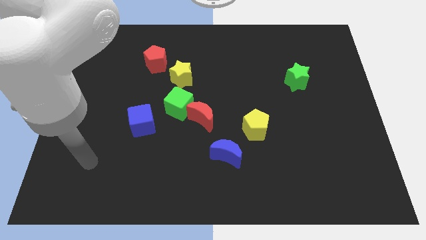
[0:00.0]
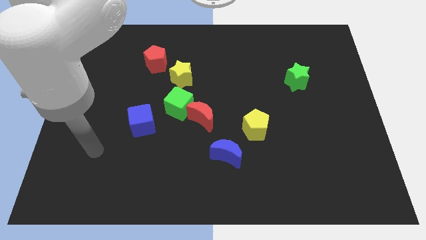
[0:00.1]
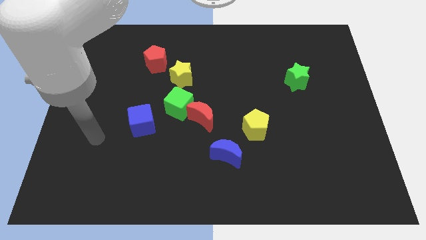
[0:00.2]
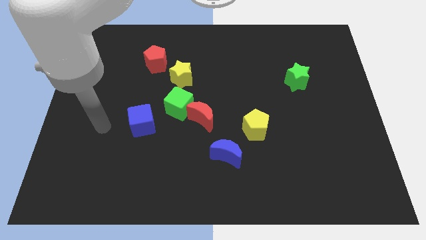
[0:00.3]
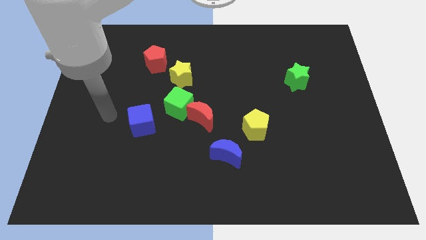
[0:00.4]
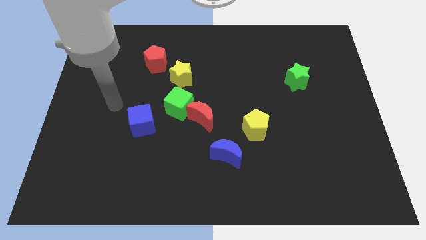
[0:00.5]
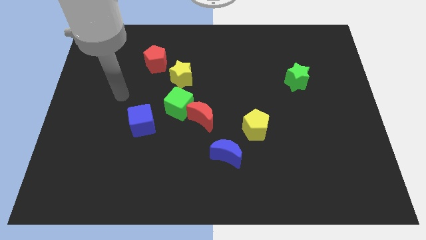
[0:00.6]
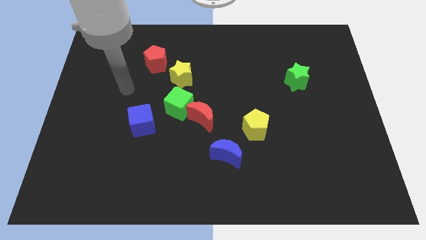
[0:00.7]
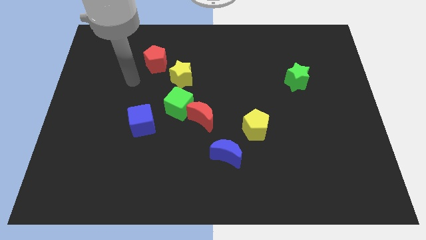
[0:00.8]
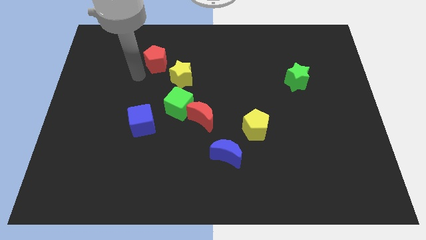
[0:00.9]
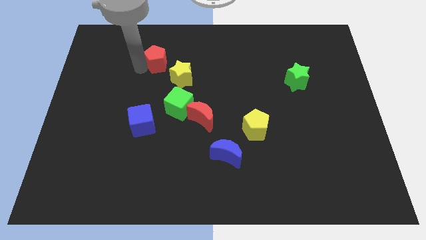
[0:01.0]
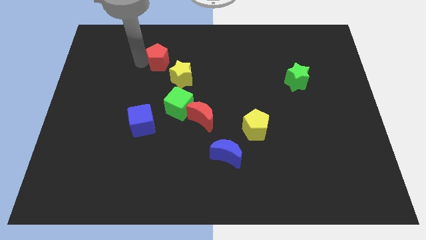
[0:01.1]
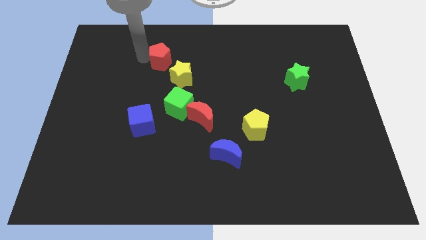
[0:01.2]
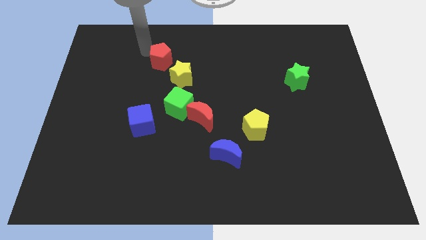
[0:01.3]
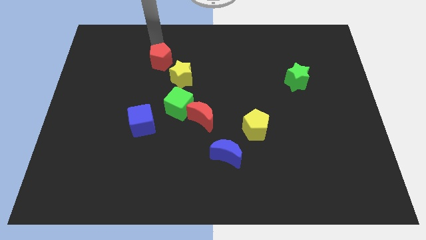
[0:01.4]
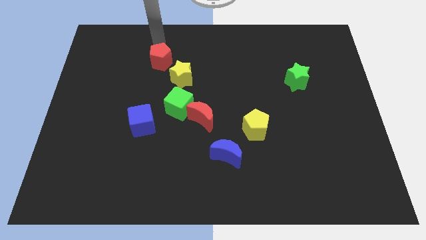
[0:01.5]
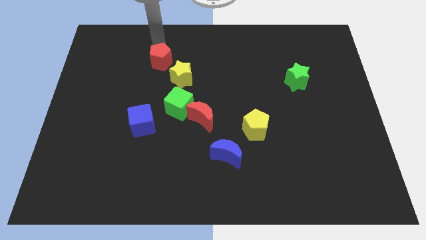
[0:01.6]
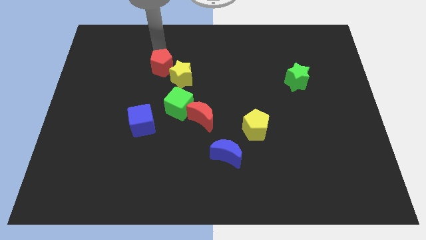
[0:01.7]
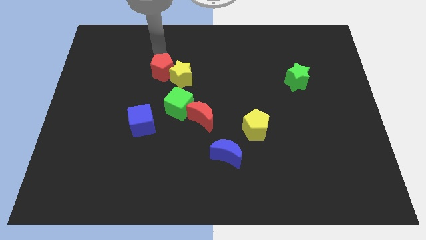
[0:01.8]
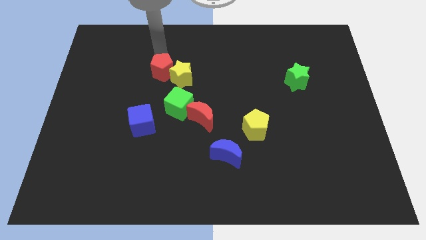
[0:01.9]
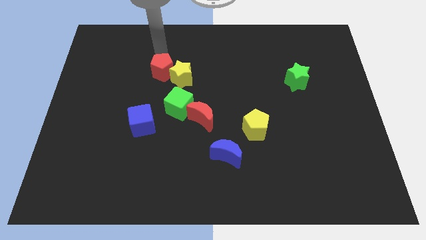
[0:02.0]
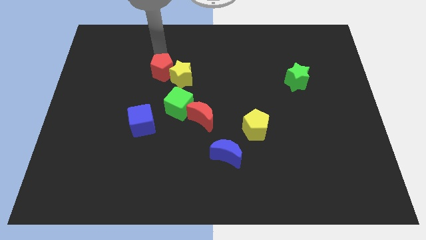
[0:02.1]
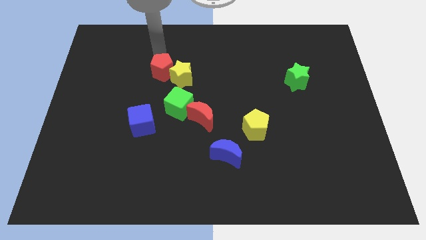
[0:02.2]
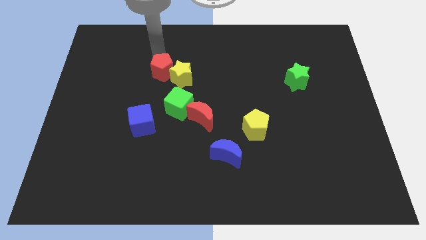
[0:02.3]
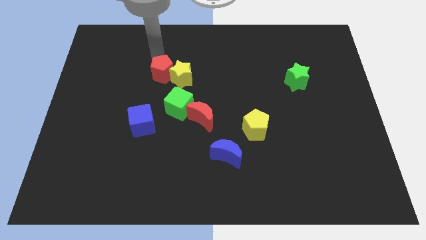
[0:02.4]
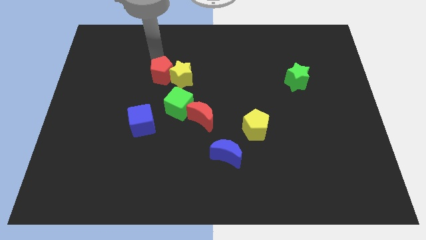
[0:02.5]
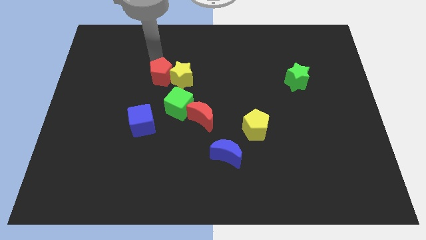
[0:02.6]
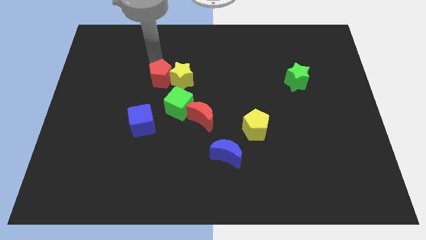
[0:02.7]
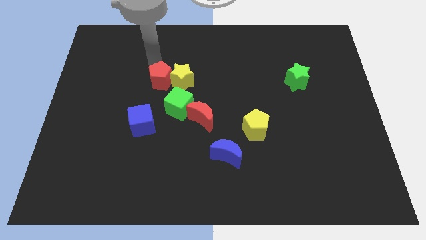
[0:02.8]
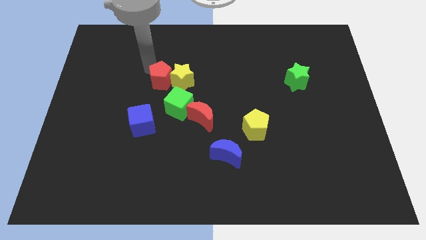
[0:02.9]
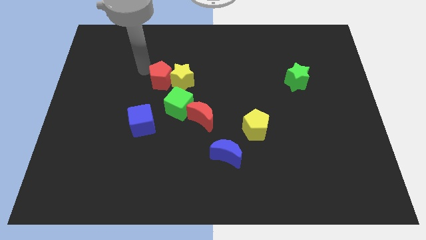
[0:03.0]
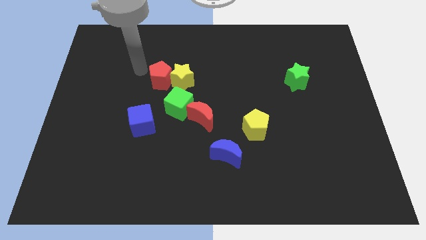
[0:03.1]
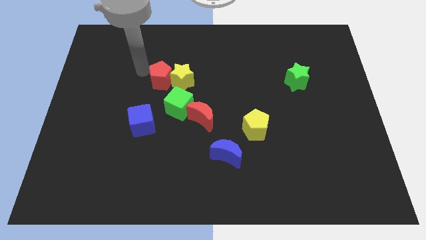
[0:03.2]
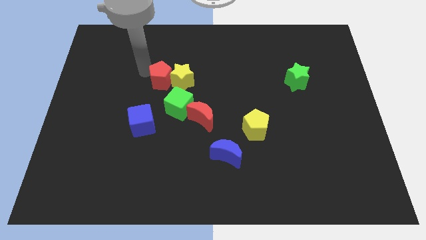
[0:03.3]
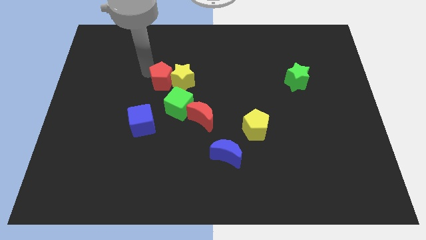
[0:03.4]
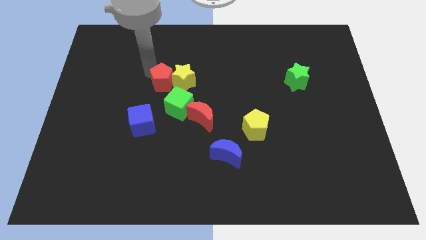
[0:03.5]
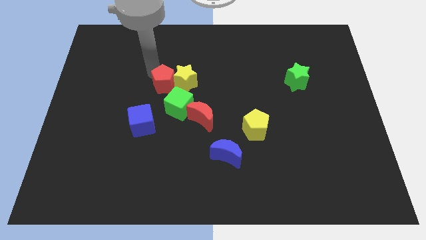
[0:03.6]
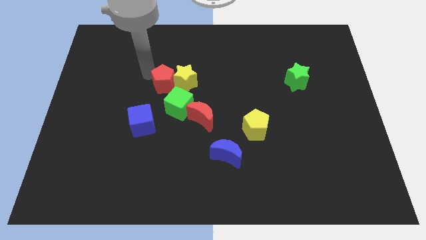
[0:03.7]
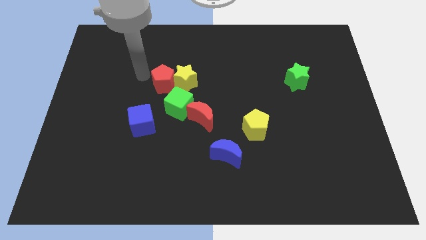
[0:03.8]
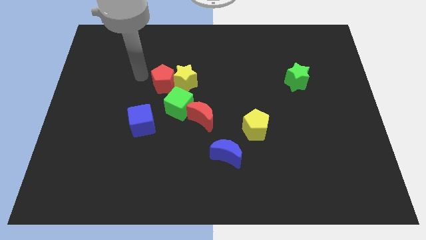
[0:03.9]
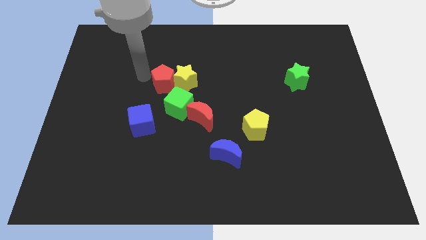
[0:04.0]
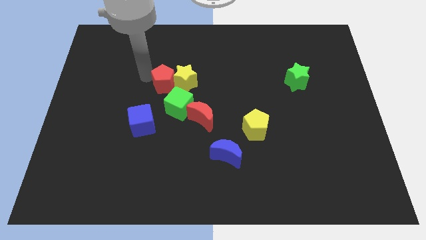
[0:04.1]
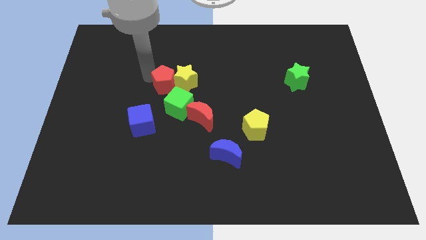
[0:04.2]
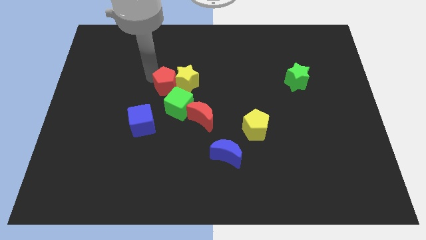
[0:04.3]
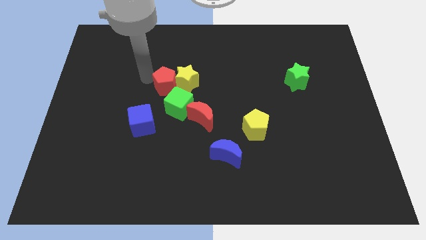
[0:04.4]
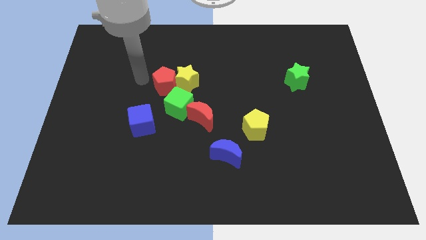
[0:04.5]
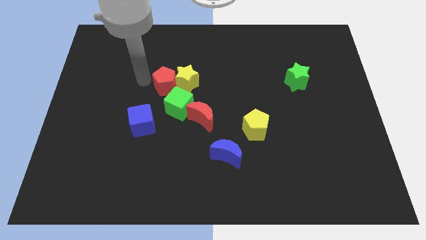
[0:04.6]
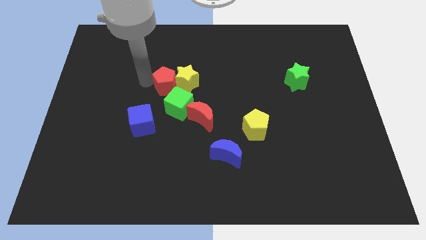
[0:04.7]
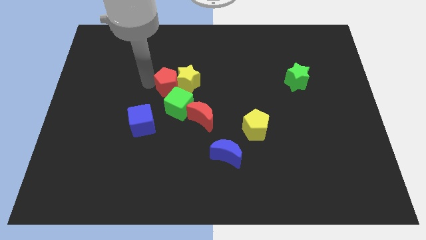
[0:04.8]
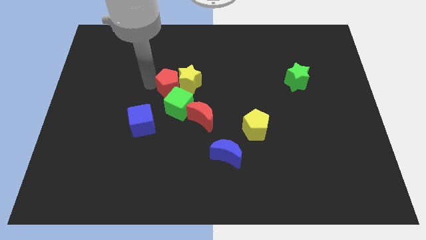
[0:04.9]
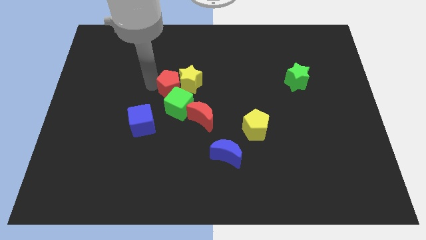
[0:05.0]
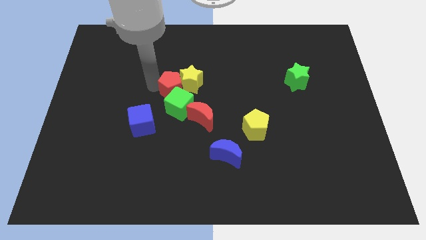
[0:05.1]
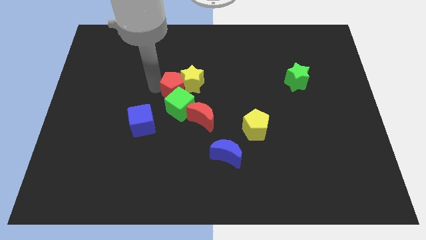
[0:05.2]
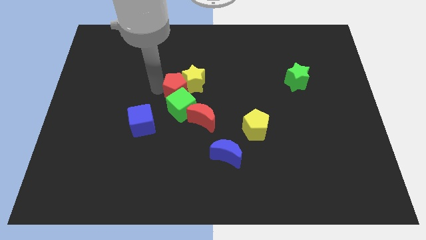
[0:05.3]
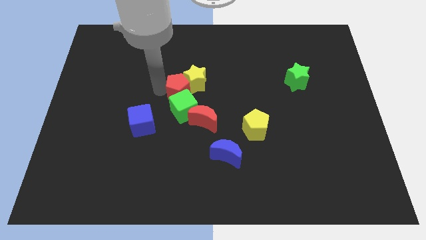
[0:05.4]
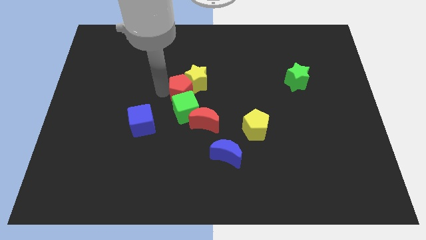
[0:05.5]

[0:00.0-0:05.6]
move the red pentagon diagonally up and to the right of the green cube

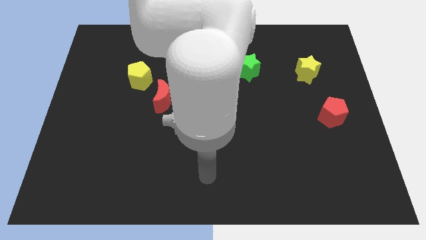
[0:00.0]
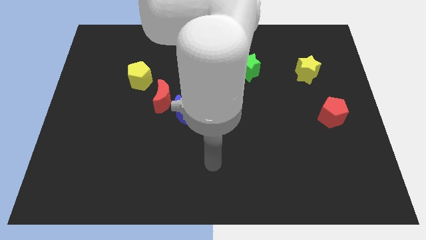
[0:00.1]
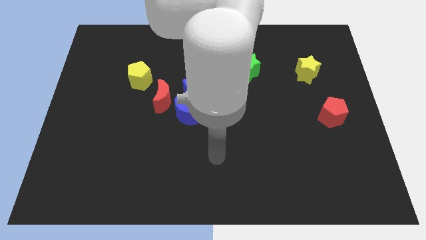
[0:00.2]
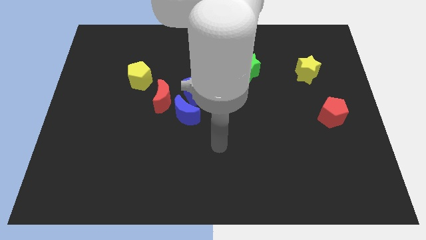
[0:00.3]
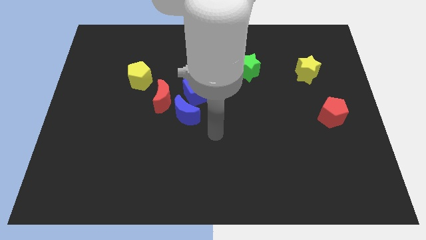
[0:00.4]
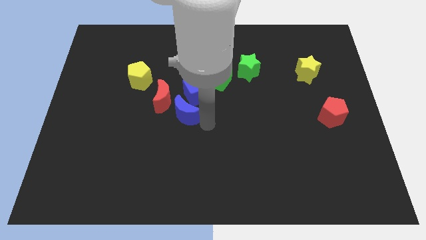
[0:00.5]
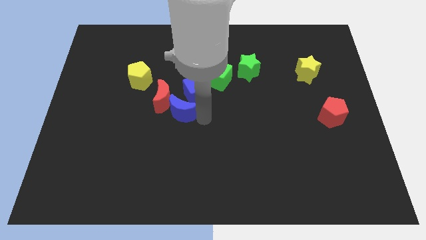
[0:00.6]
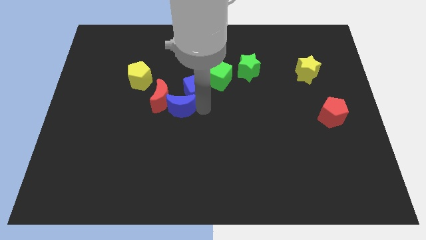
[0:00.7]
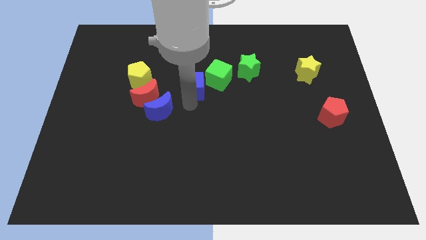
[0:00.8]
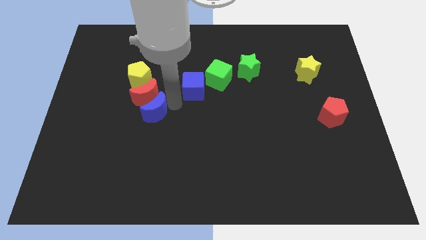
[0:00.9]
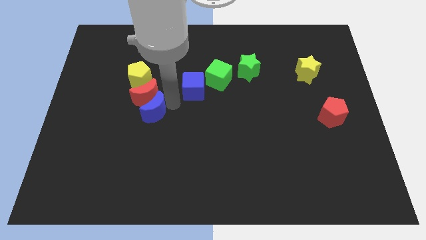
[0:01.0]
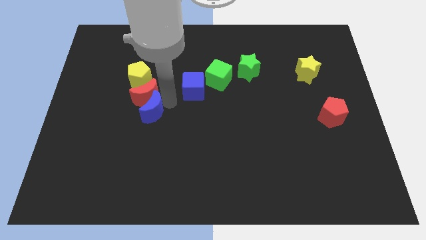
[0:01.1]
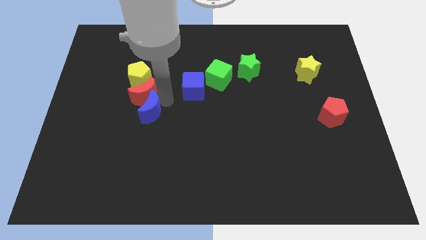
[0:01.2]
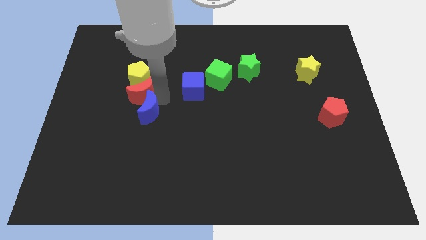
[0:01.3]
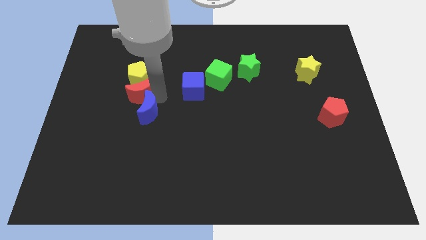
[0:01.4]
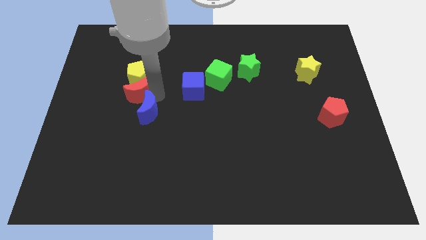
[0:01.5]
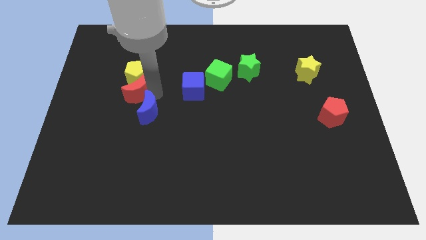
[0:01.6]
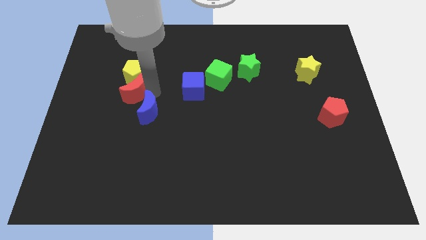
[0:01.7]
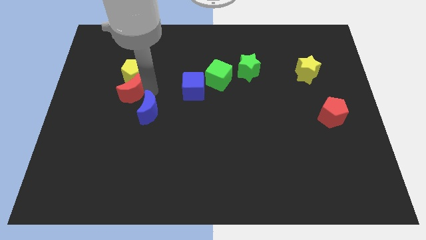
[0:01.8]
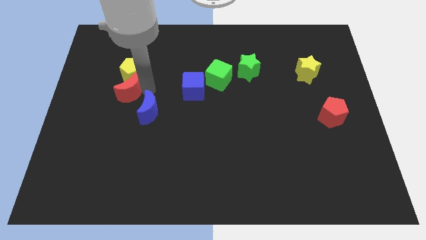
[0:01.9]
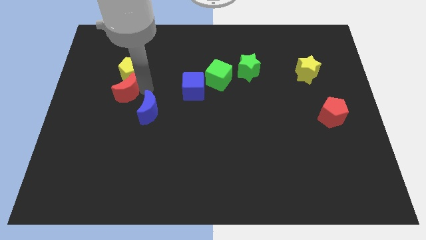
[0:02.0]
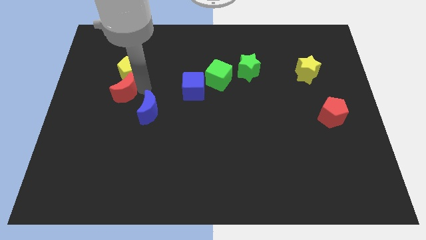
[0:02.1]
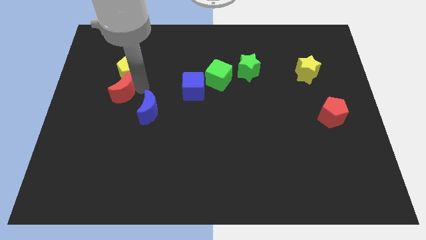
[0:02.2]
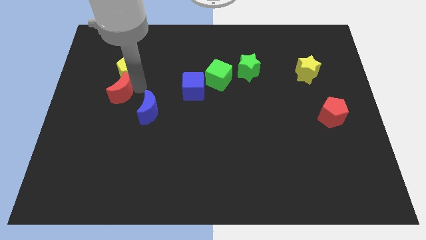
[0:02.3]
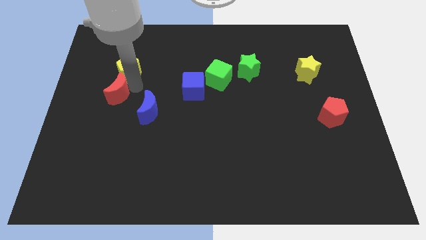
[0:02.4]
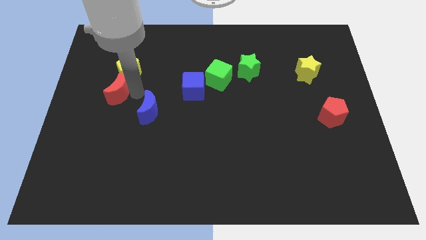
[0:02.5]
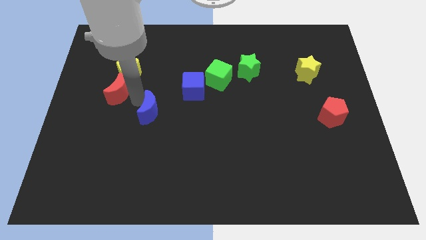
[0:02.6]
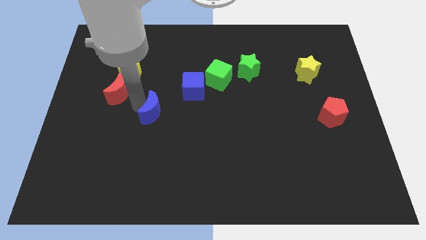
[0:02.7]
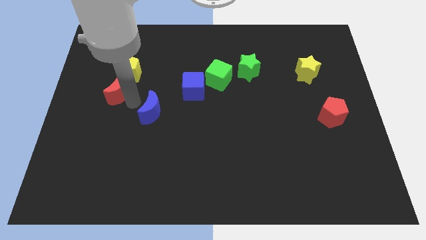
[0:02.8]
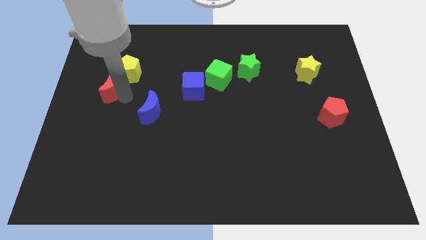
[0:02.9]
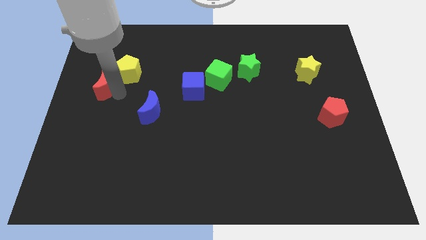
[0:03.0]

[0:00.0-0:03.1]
move the red moon to the left of the yellow pentagon
